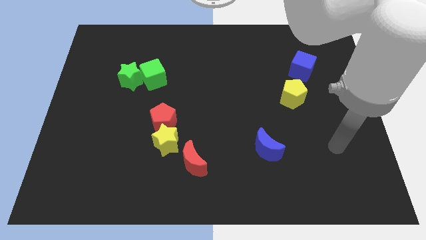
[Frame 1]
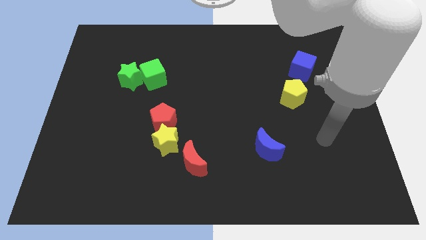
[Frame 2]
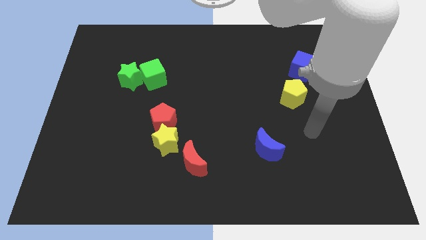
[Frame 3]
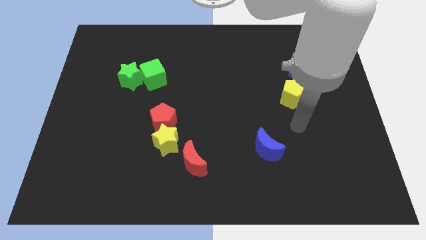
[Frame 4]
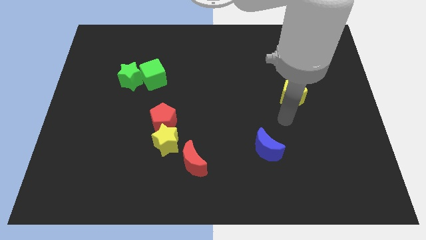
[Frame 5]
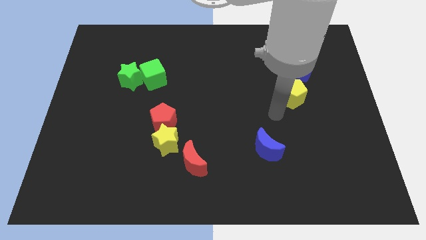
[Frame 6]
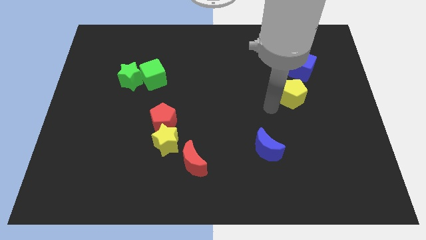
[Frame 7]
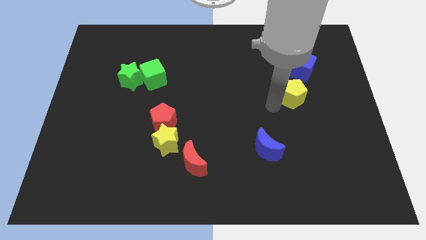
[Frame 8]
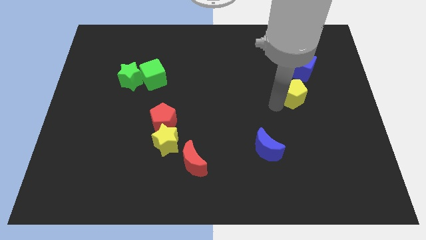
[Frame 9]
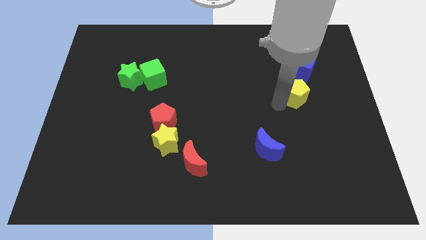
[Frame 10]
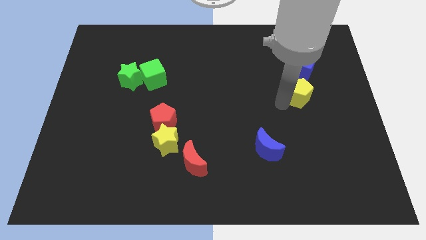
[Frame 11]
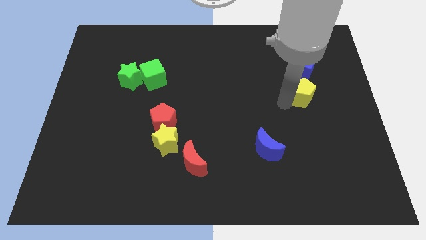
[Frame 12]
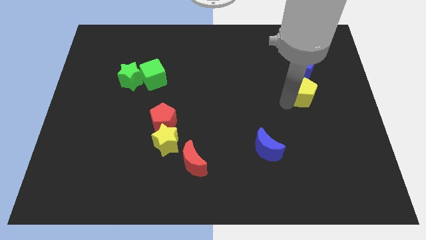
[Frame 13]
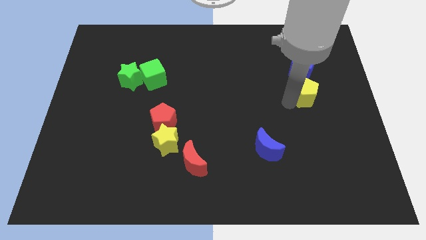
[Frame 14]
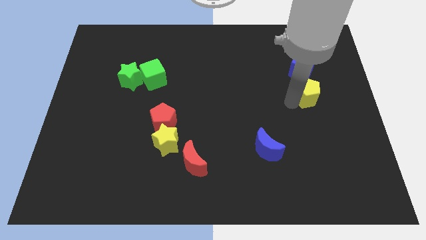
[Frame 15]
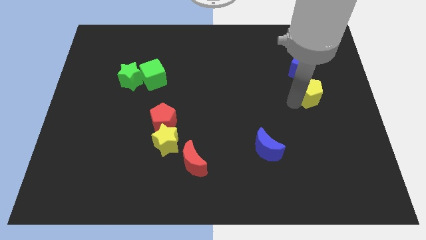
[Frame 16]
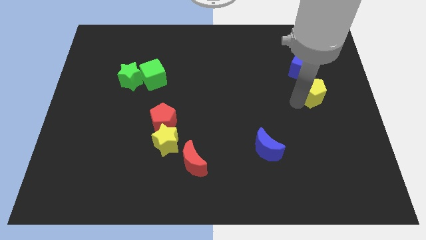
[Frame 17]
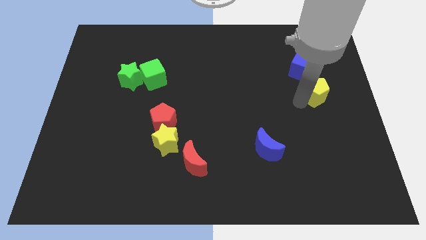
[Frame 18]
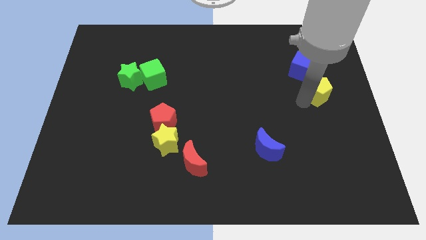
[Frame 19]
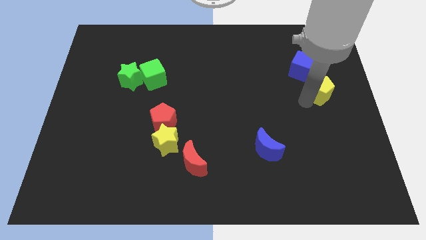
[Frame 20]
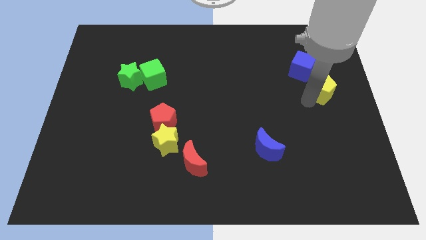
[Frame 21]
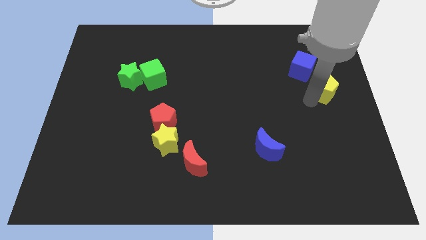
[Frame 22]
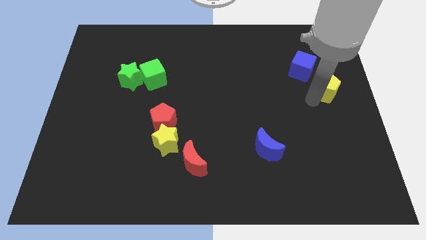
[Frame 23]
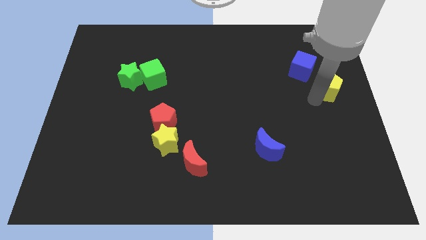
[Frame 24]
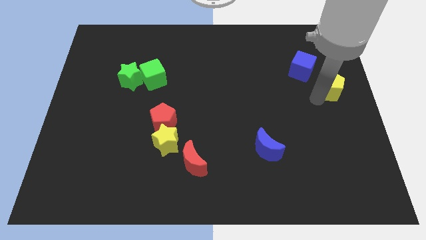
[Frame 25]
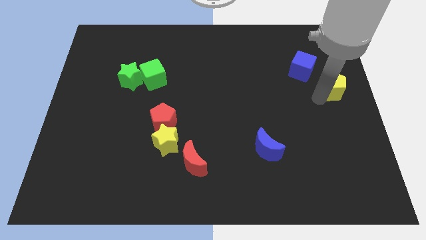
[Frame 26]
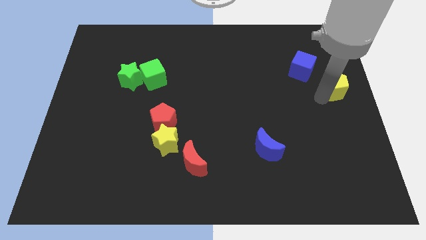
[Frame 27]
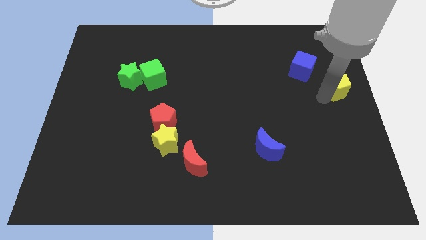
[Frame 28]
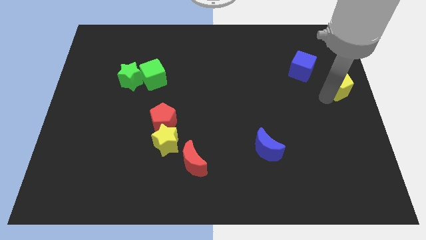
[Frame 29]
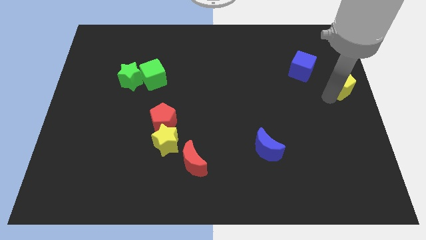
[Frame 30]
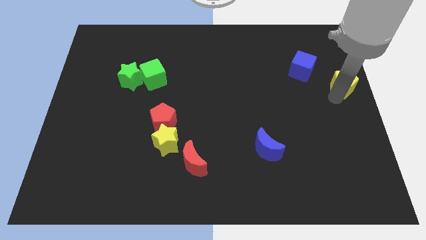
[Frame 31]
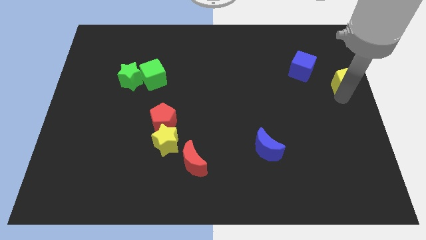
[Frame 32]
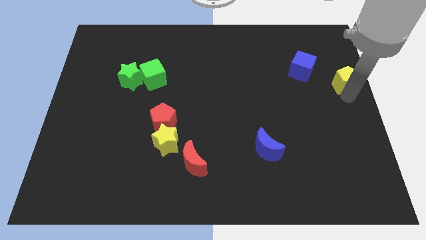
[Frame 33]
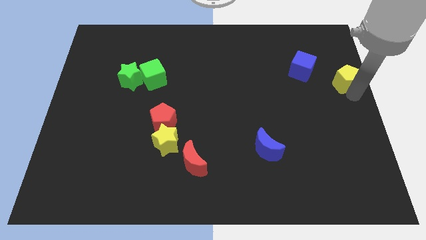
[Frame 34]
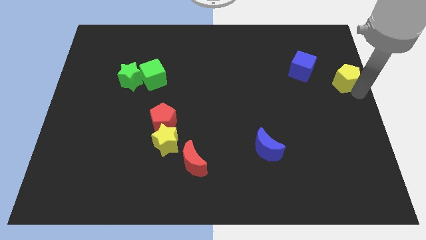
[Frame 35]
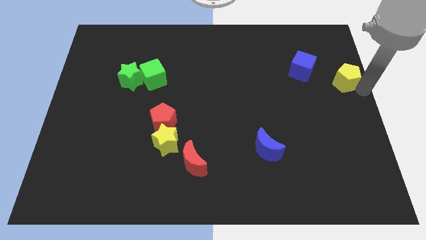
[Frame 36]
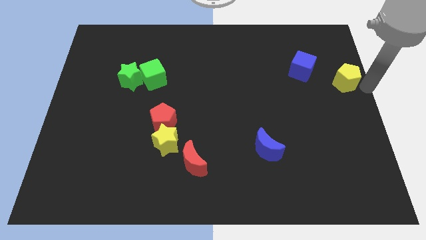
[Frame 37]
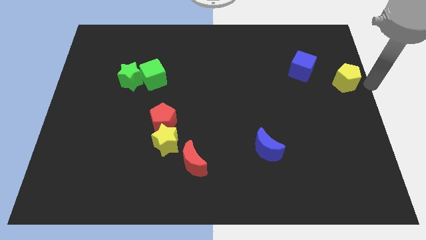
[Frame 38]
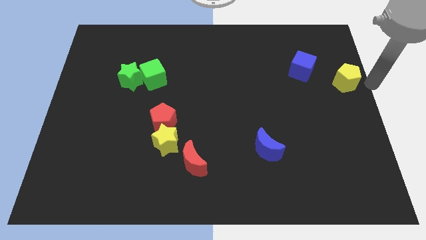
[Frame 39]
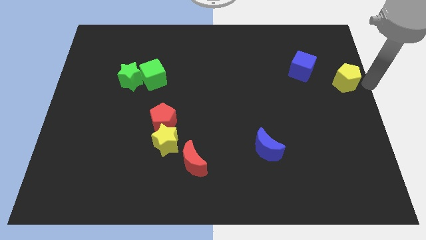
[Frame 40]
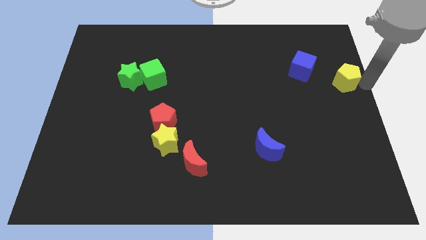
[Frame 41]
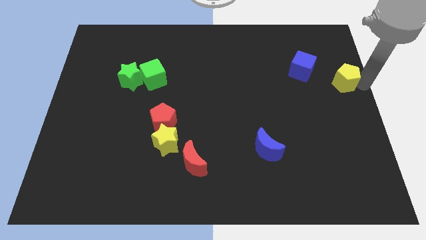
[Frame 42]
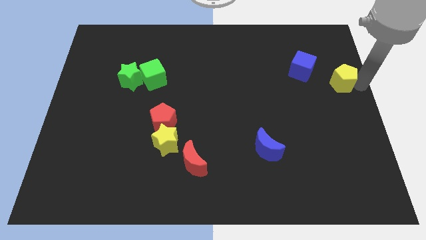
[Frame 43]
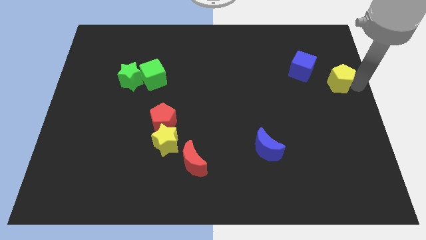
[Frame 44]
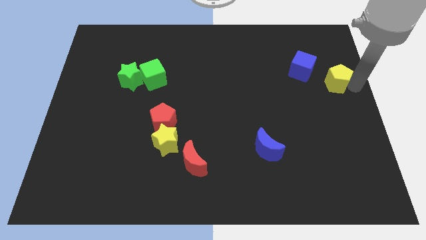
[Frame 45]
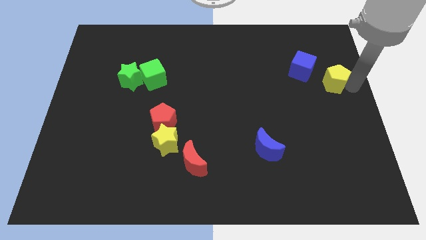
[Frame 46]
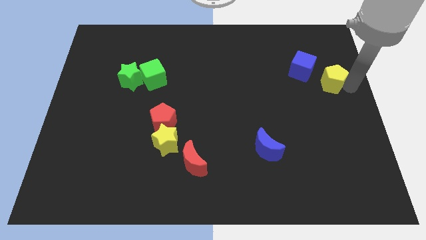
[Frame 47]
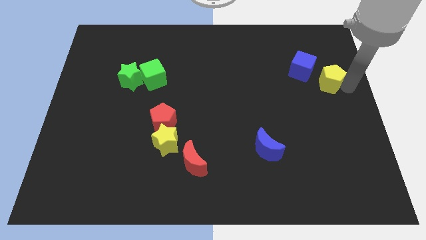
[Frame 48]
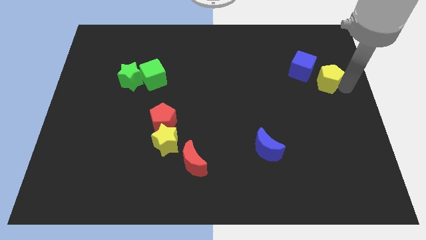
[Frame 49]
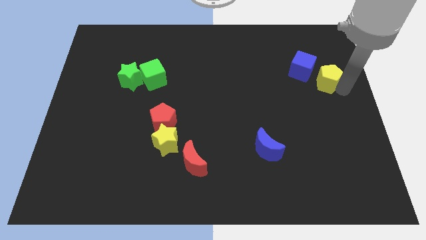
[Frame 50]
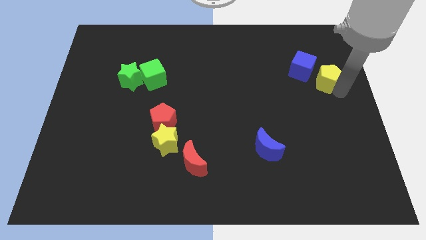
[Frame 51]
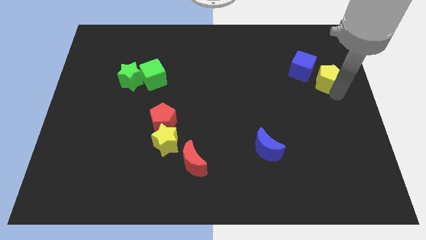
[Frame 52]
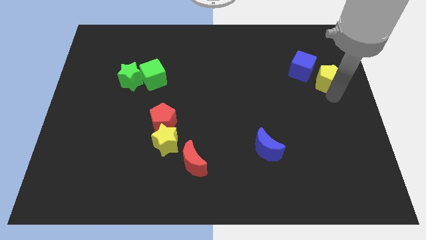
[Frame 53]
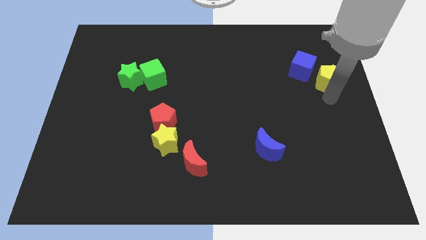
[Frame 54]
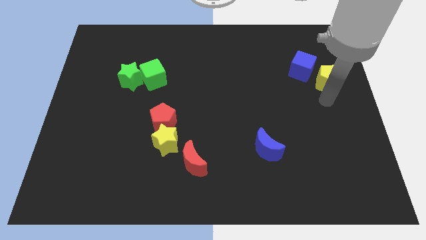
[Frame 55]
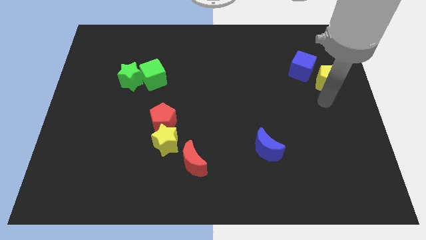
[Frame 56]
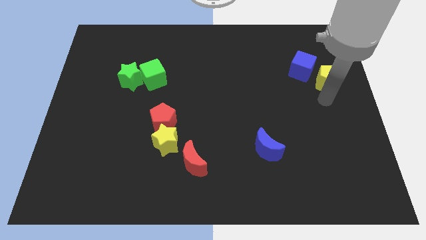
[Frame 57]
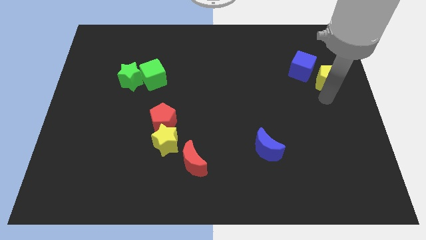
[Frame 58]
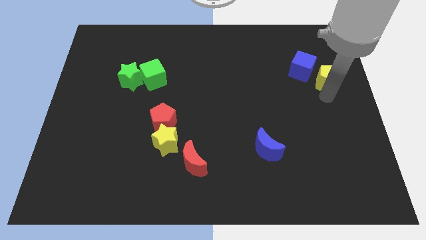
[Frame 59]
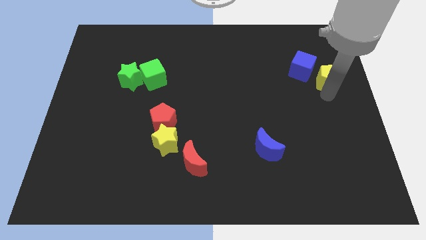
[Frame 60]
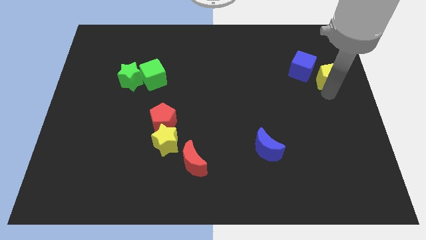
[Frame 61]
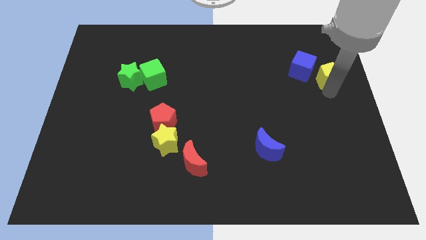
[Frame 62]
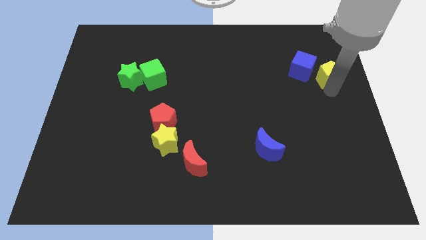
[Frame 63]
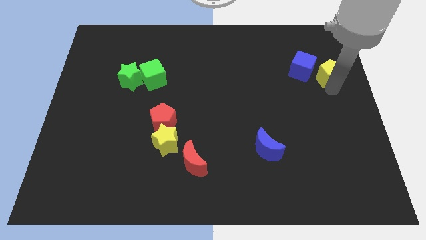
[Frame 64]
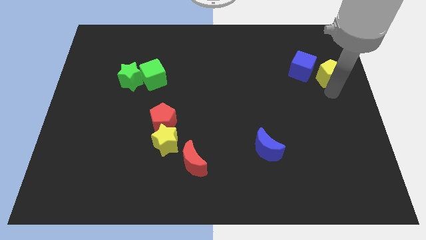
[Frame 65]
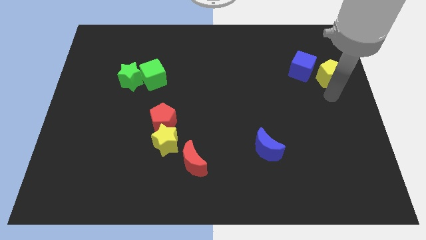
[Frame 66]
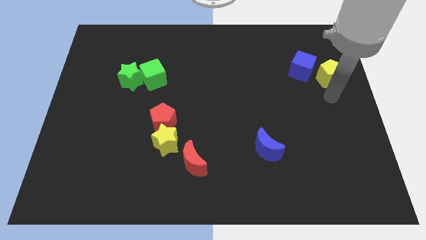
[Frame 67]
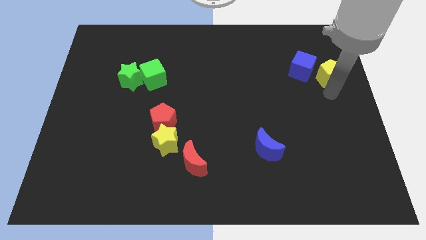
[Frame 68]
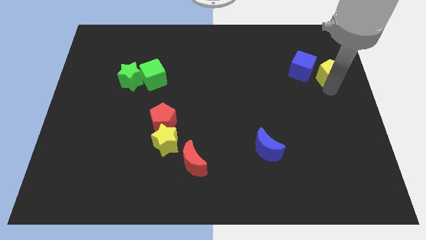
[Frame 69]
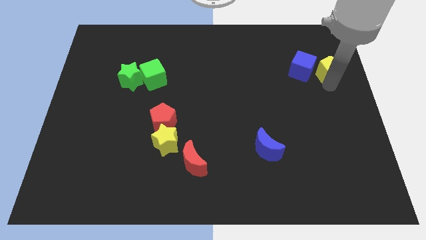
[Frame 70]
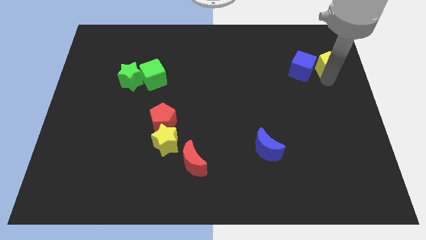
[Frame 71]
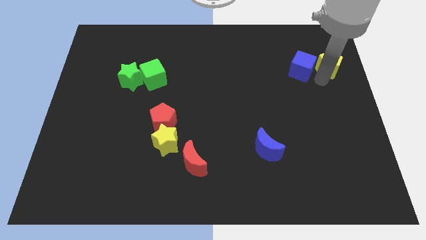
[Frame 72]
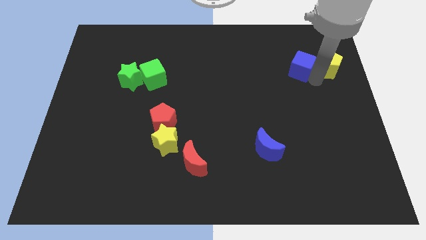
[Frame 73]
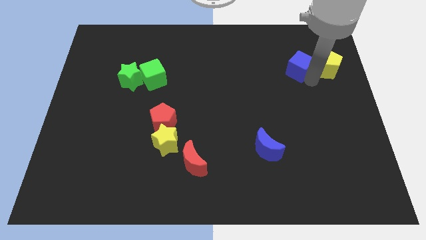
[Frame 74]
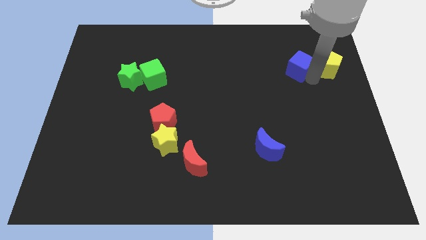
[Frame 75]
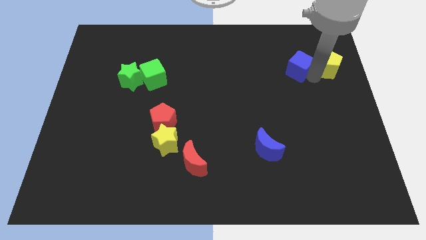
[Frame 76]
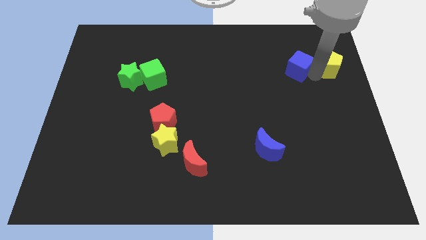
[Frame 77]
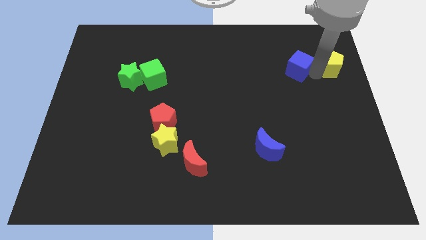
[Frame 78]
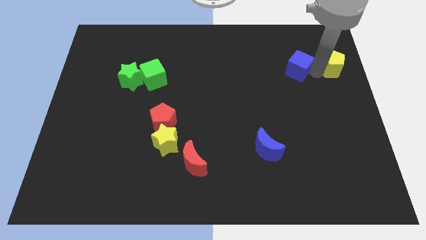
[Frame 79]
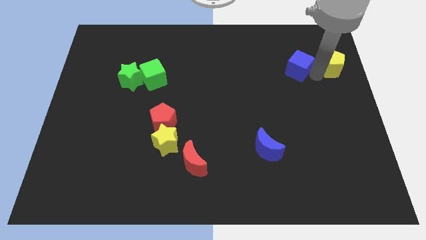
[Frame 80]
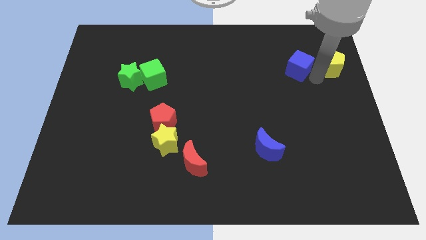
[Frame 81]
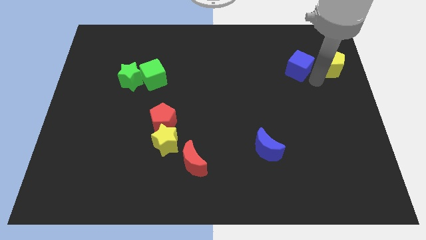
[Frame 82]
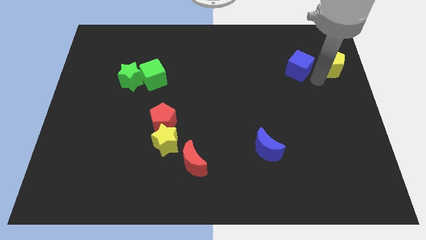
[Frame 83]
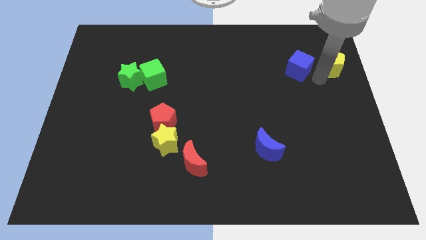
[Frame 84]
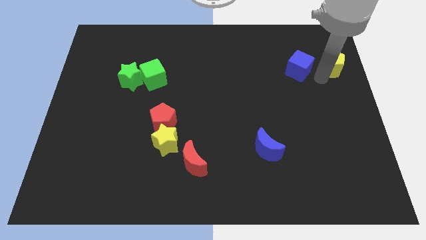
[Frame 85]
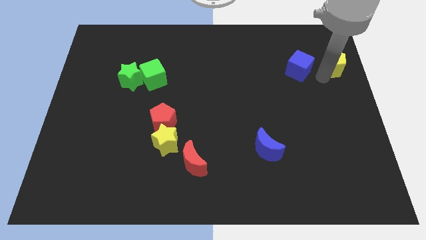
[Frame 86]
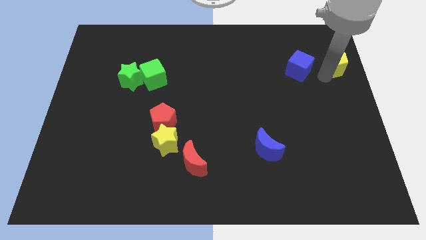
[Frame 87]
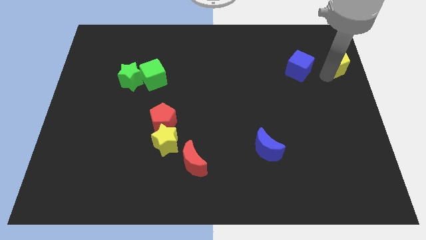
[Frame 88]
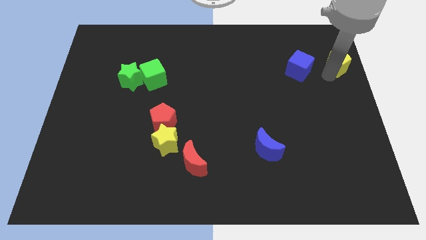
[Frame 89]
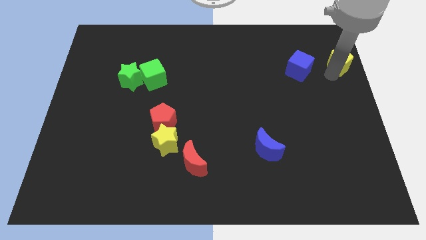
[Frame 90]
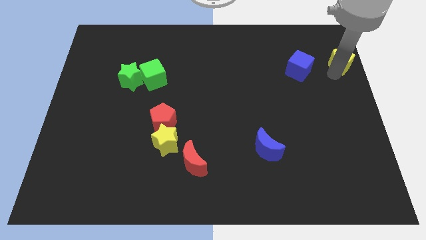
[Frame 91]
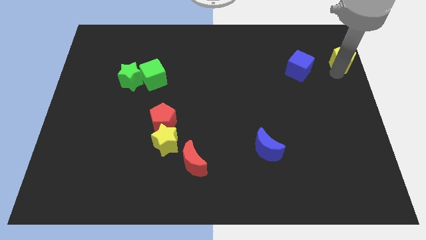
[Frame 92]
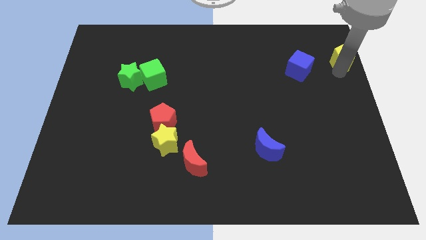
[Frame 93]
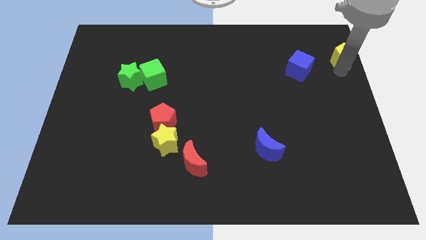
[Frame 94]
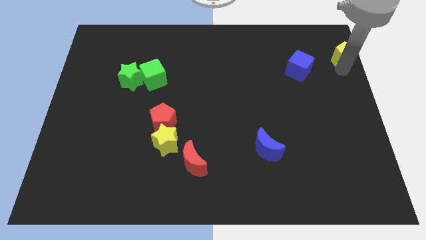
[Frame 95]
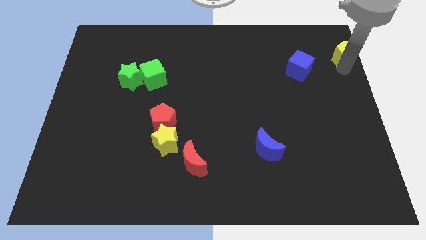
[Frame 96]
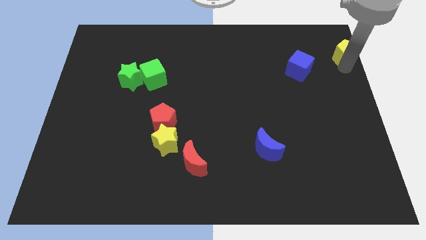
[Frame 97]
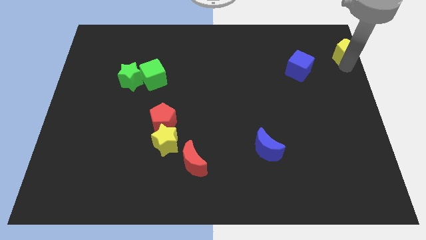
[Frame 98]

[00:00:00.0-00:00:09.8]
push the yellow pentagon to the top right of the board
